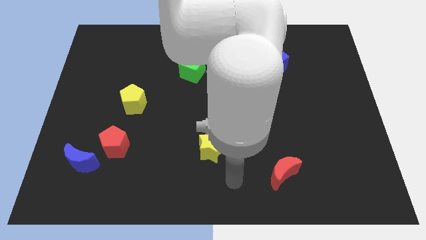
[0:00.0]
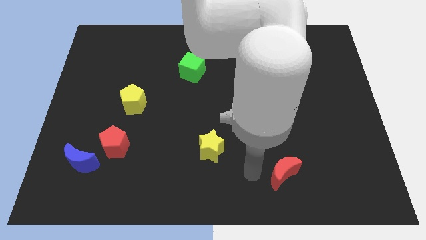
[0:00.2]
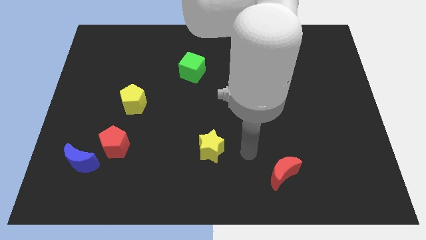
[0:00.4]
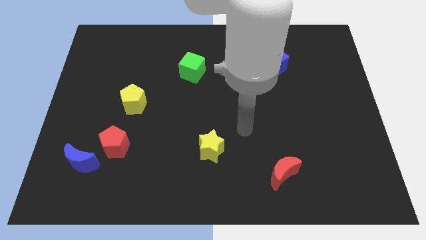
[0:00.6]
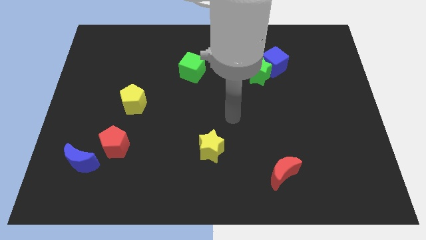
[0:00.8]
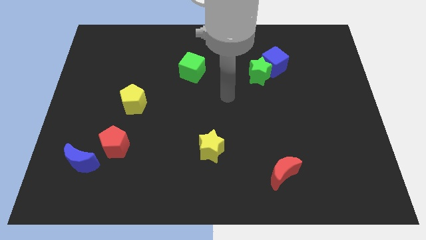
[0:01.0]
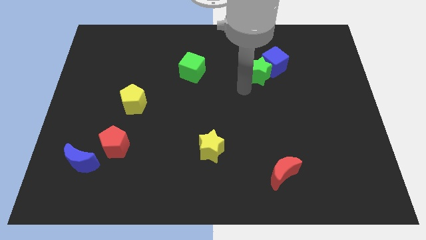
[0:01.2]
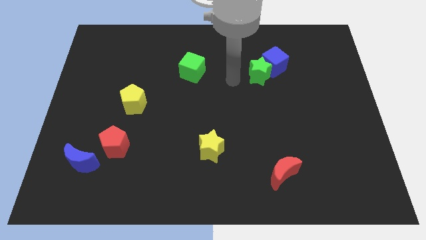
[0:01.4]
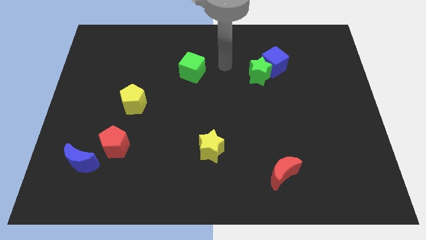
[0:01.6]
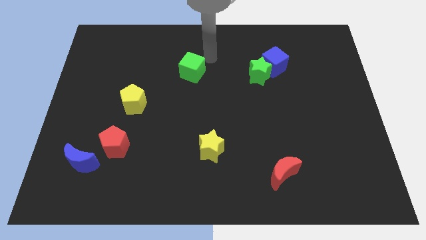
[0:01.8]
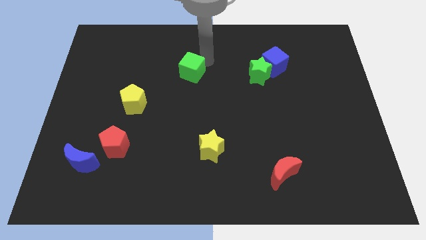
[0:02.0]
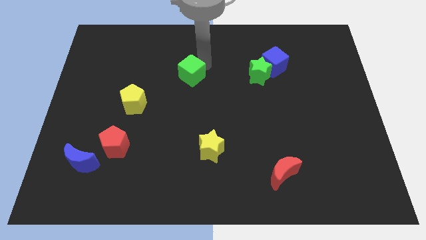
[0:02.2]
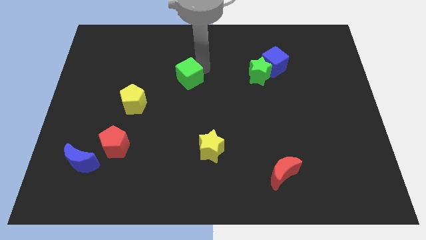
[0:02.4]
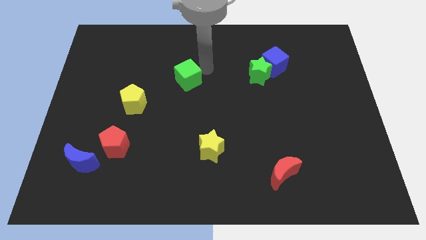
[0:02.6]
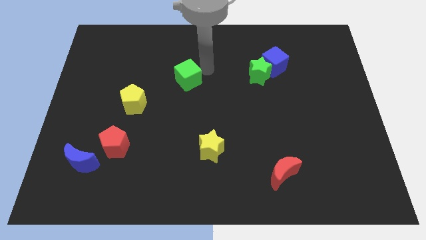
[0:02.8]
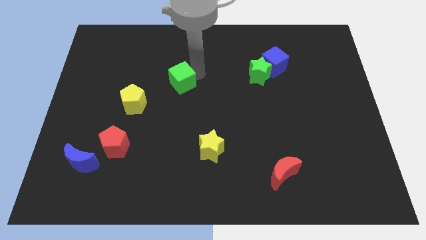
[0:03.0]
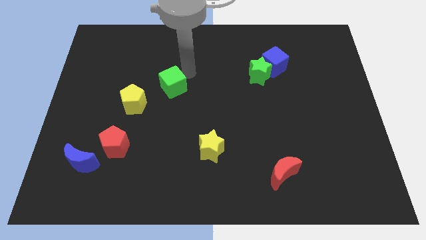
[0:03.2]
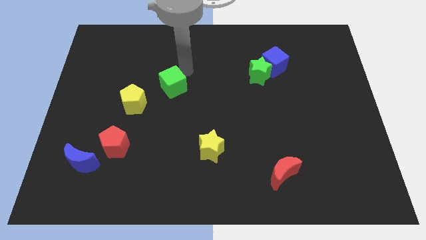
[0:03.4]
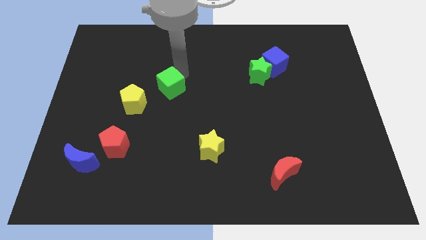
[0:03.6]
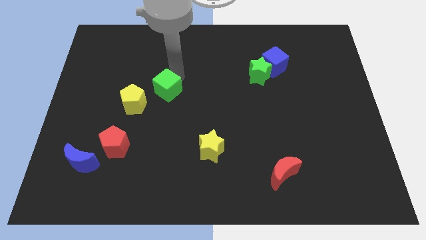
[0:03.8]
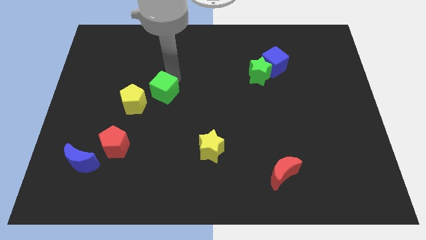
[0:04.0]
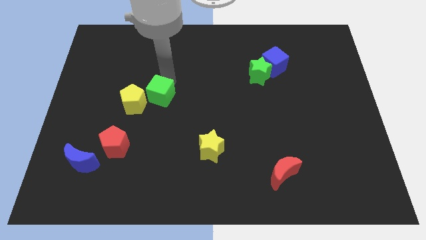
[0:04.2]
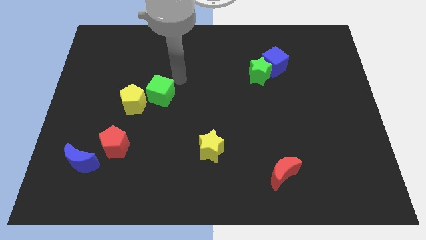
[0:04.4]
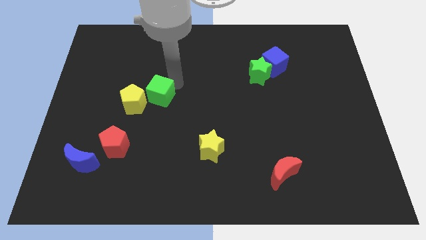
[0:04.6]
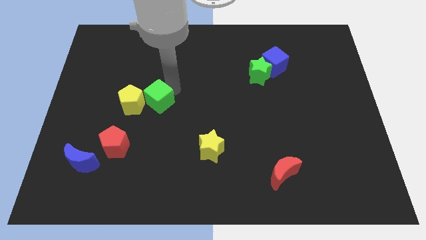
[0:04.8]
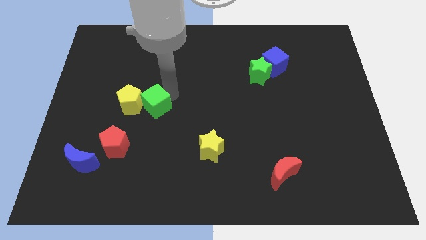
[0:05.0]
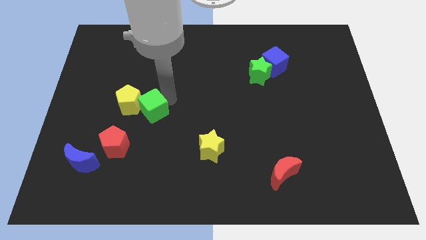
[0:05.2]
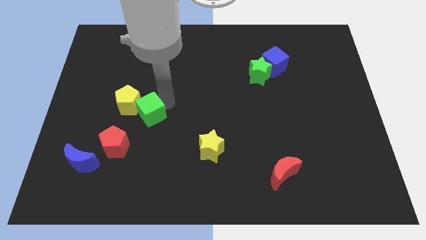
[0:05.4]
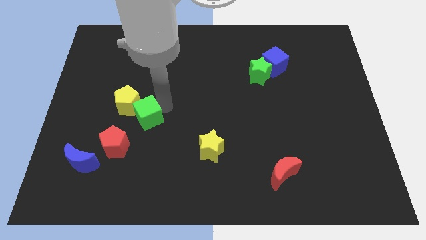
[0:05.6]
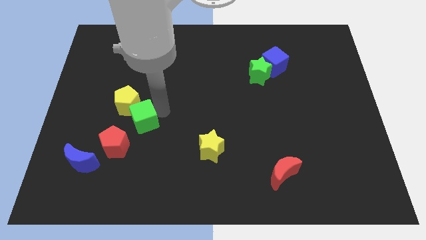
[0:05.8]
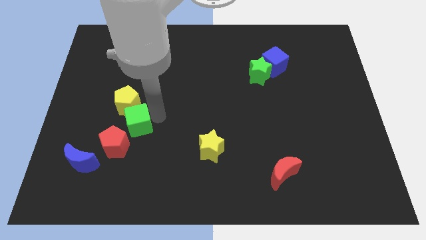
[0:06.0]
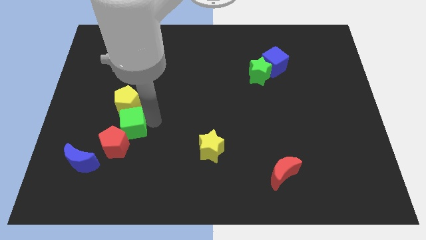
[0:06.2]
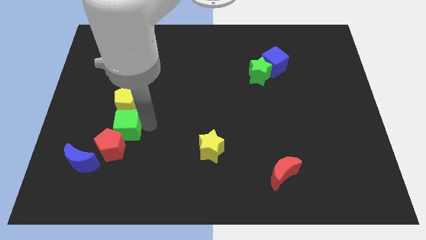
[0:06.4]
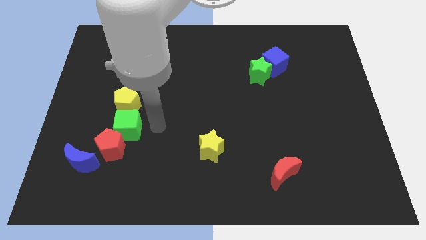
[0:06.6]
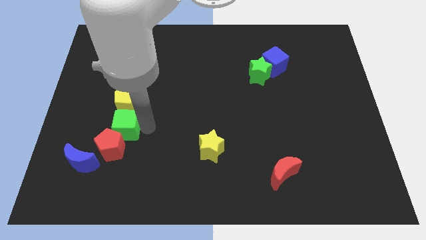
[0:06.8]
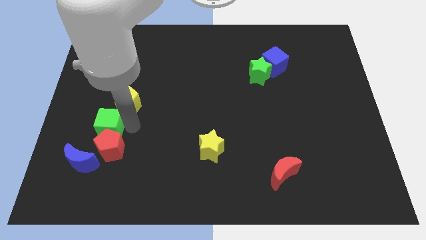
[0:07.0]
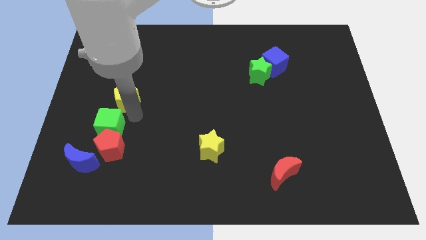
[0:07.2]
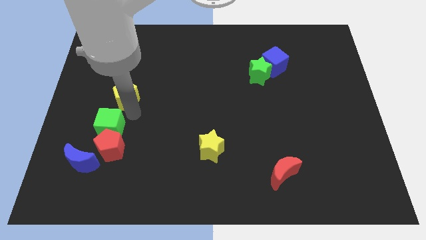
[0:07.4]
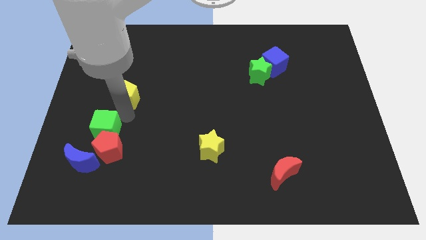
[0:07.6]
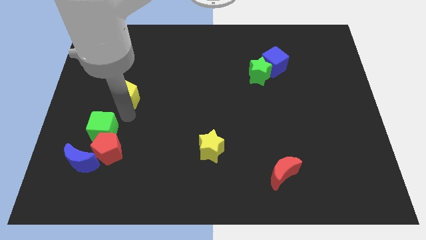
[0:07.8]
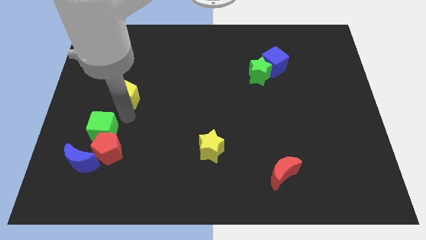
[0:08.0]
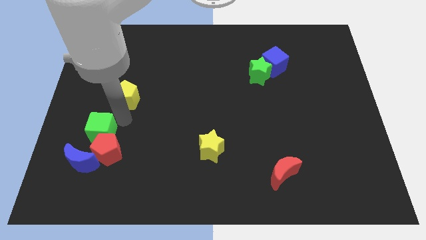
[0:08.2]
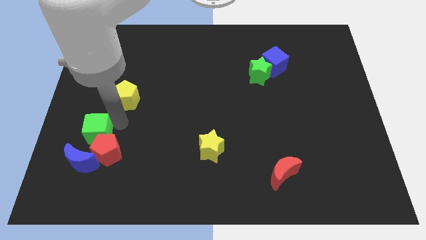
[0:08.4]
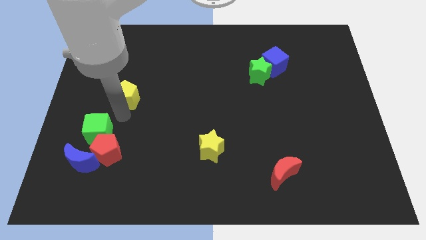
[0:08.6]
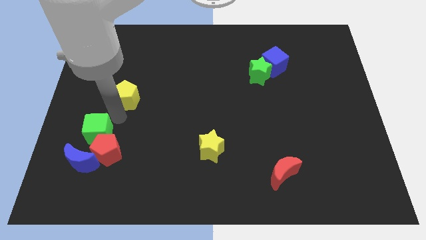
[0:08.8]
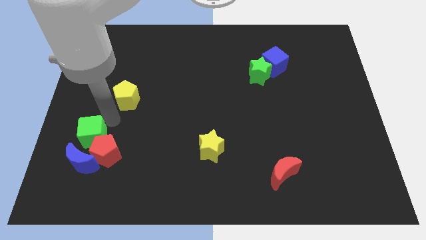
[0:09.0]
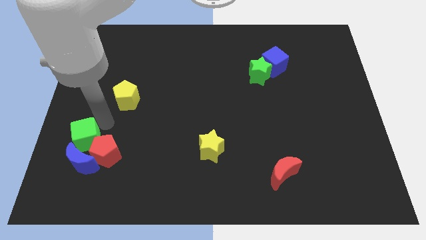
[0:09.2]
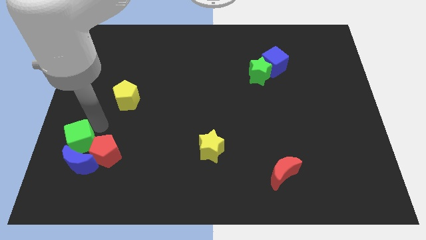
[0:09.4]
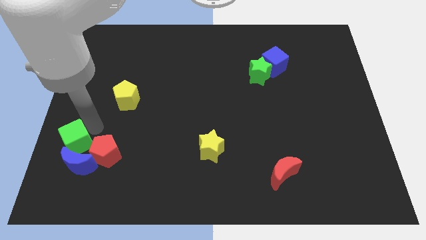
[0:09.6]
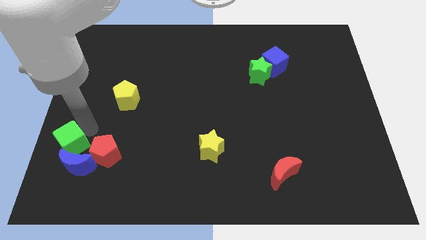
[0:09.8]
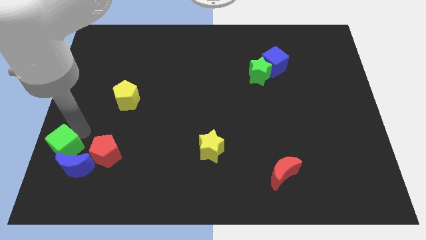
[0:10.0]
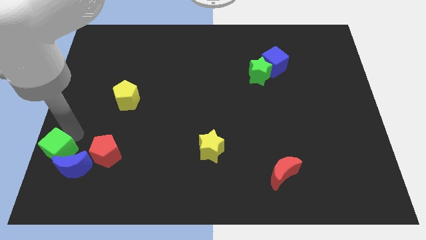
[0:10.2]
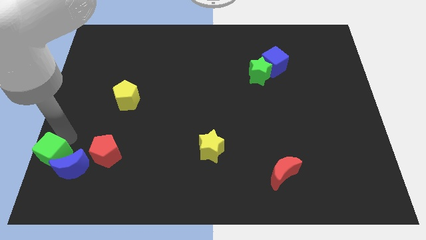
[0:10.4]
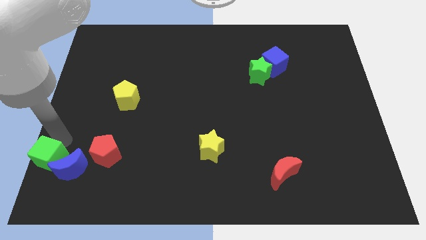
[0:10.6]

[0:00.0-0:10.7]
put the green cube to the bottom left corner

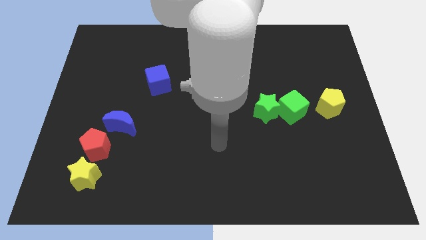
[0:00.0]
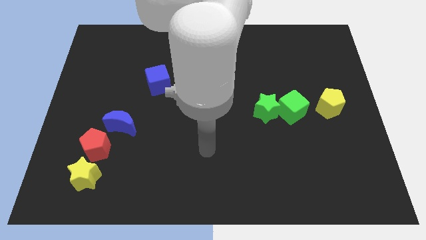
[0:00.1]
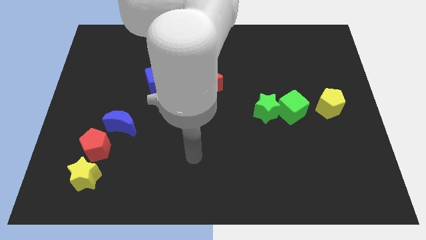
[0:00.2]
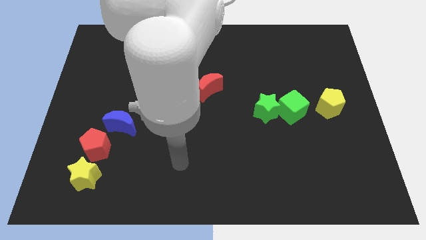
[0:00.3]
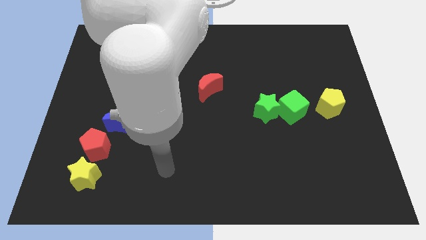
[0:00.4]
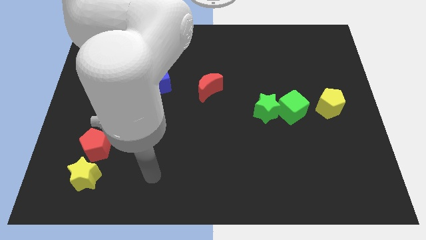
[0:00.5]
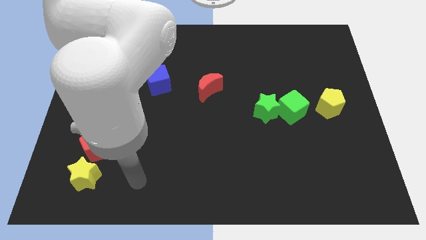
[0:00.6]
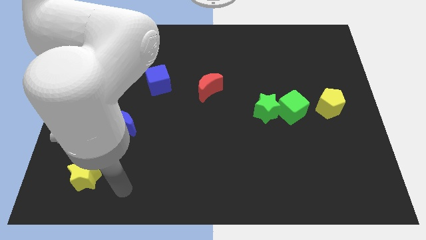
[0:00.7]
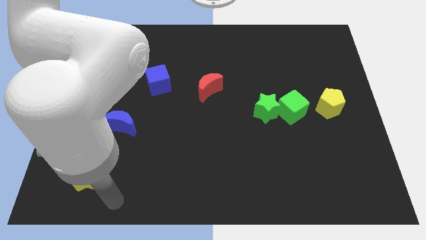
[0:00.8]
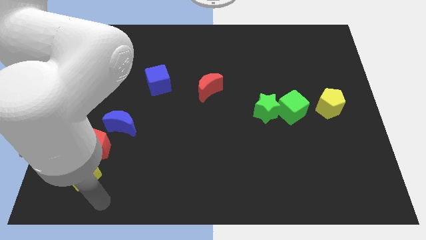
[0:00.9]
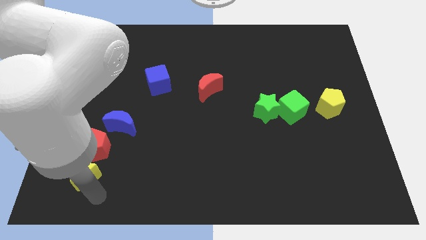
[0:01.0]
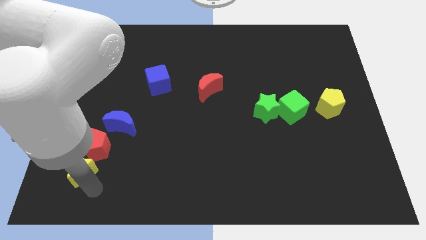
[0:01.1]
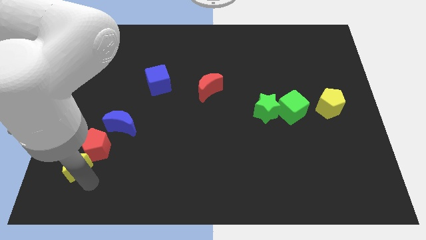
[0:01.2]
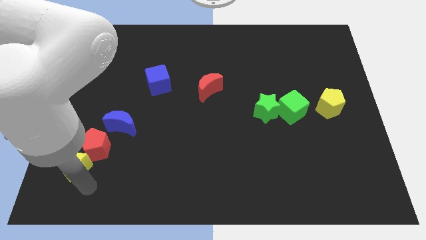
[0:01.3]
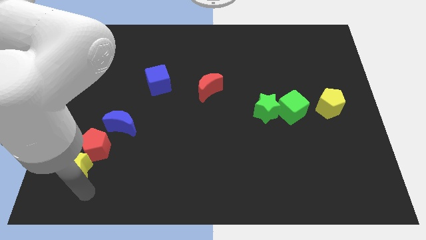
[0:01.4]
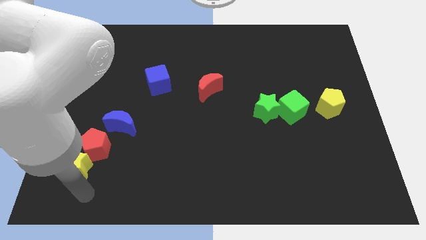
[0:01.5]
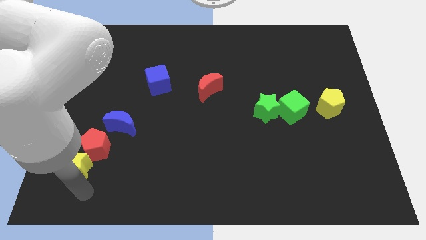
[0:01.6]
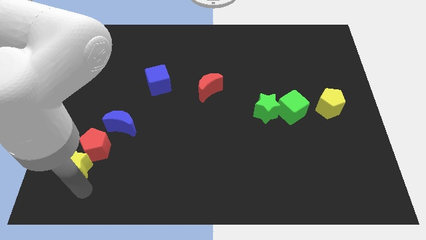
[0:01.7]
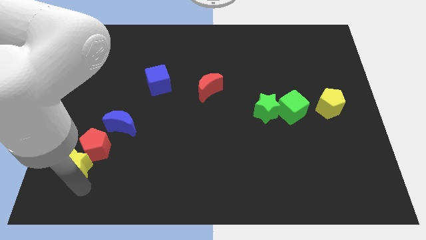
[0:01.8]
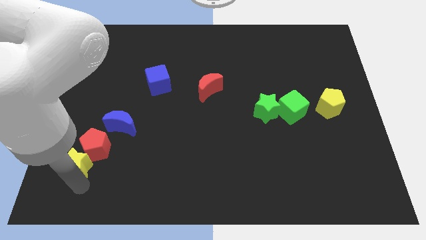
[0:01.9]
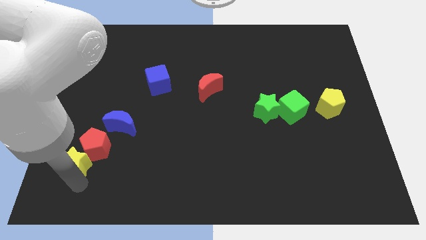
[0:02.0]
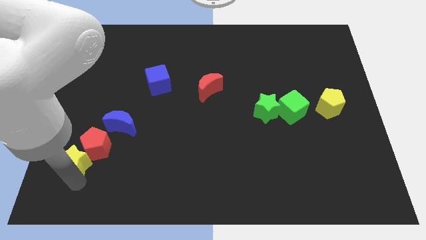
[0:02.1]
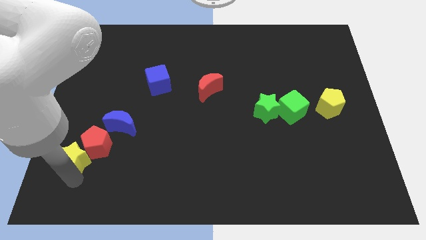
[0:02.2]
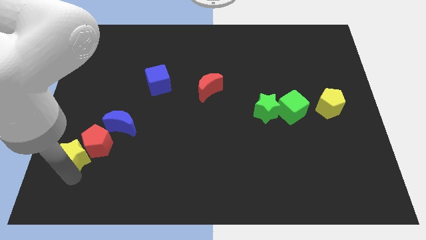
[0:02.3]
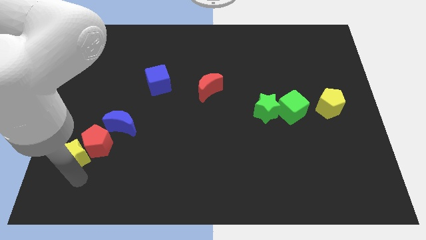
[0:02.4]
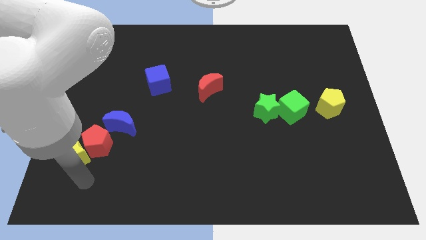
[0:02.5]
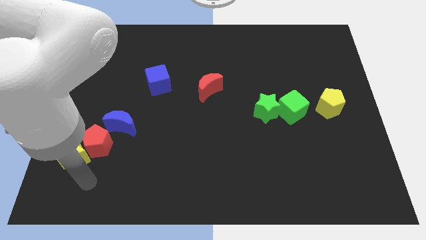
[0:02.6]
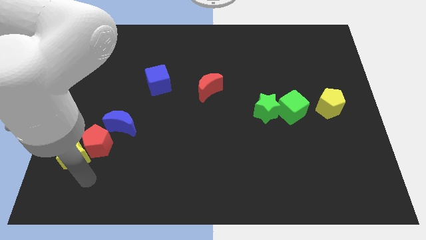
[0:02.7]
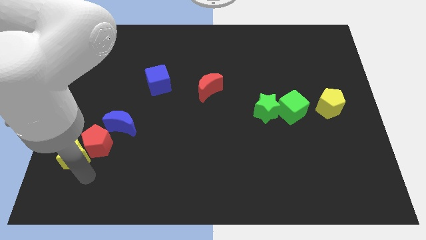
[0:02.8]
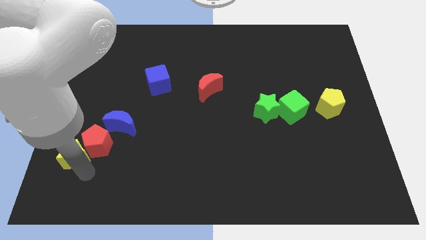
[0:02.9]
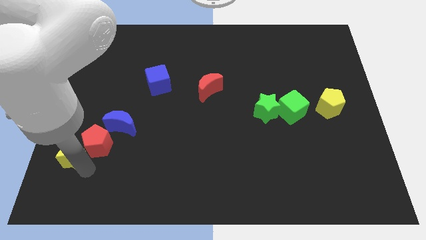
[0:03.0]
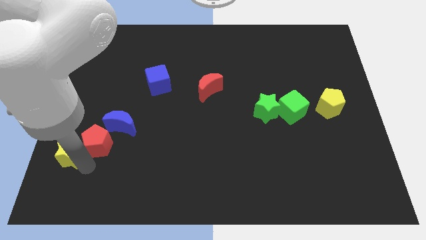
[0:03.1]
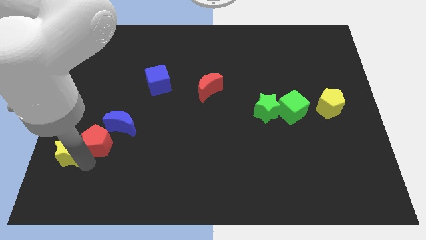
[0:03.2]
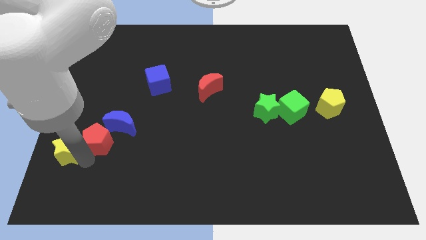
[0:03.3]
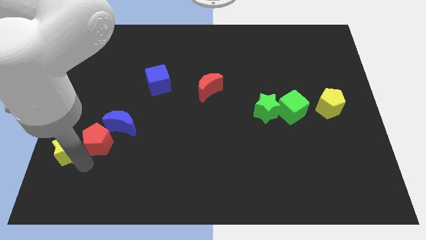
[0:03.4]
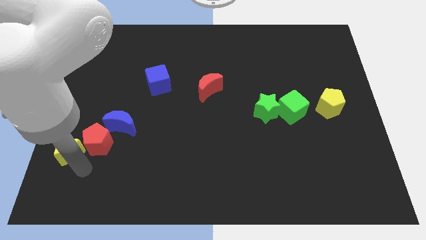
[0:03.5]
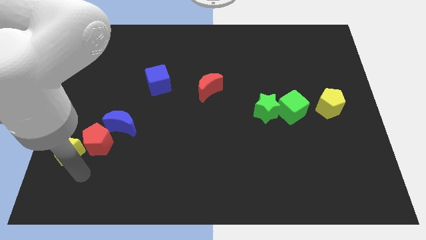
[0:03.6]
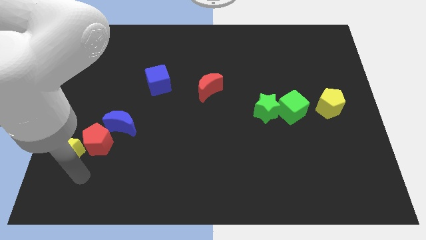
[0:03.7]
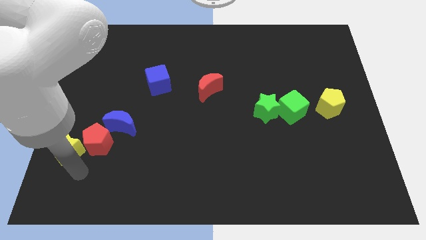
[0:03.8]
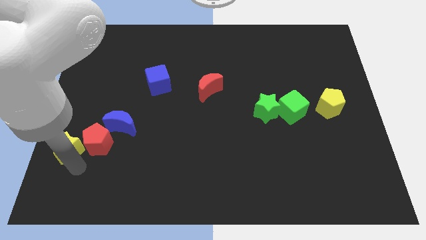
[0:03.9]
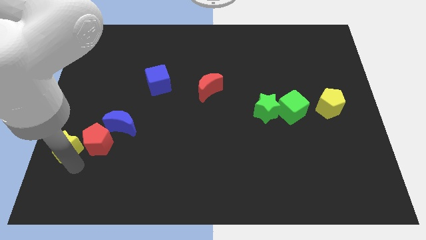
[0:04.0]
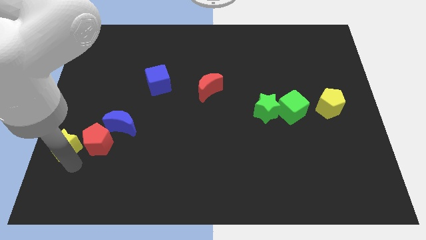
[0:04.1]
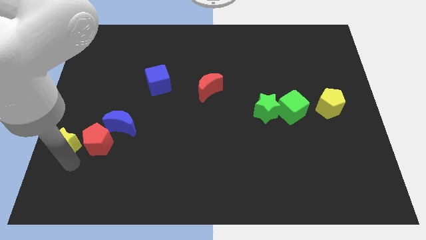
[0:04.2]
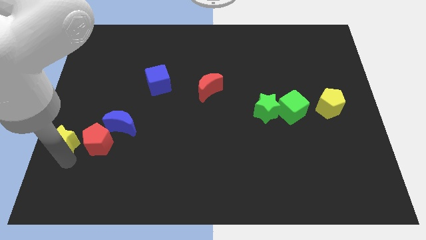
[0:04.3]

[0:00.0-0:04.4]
slide the yellow star to the center left
